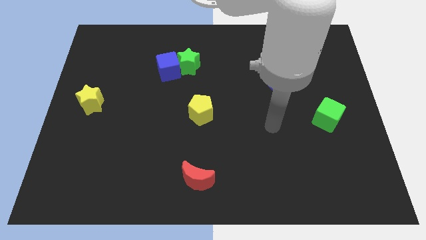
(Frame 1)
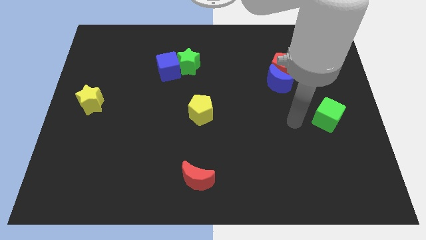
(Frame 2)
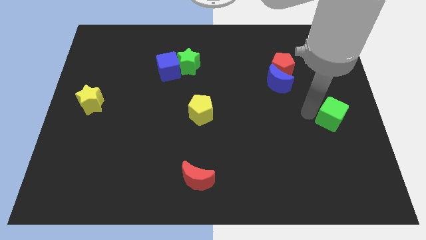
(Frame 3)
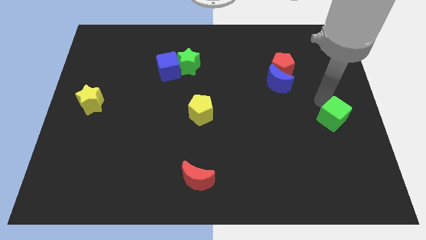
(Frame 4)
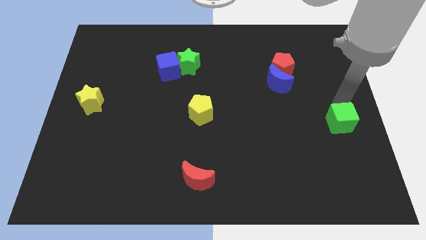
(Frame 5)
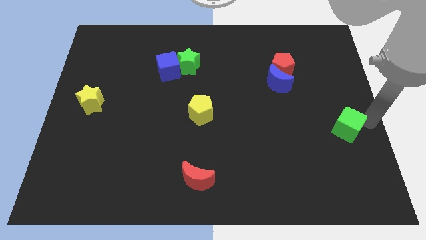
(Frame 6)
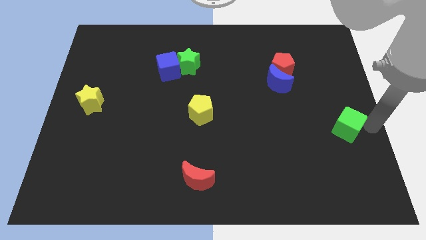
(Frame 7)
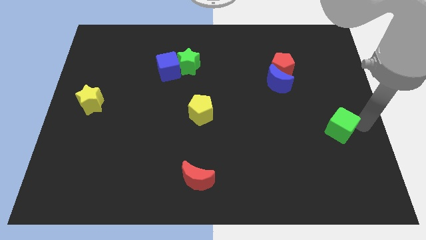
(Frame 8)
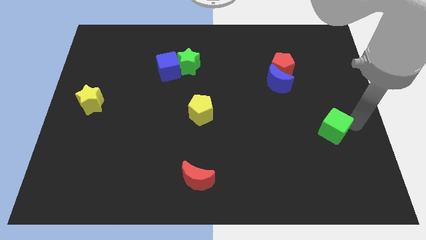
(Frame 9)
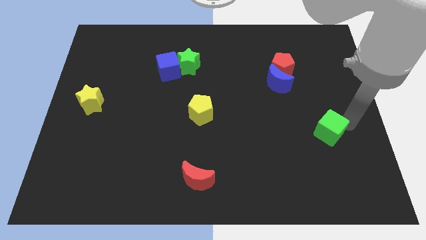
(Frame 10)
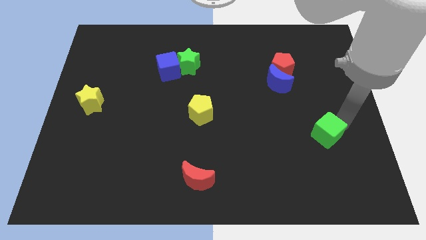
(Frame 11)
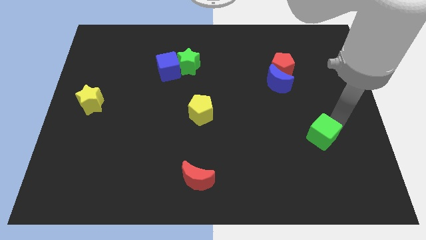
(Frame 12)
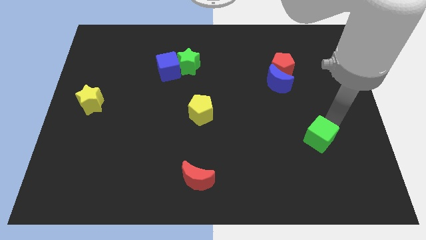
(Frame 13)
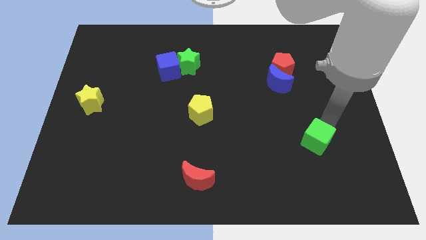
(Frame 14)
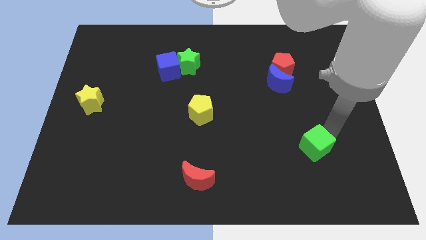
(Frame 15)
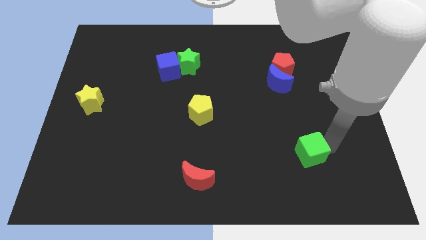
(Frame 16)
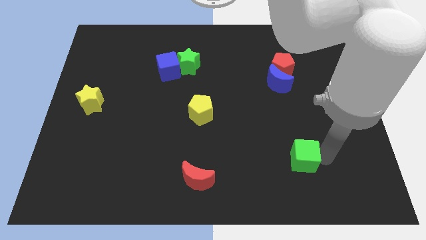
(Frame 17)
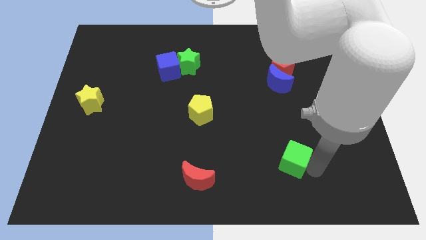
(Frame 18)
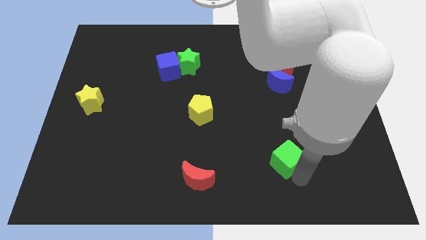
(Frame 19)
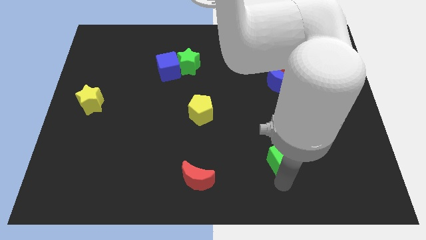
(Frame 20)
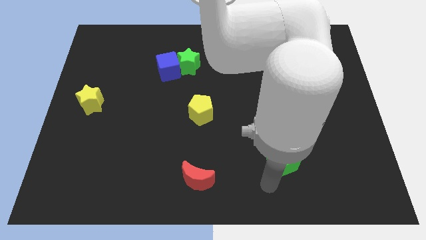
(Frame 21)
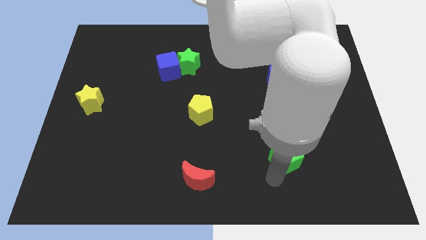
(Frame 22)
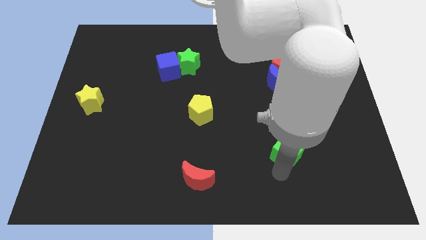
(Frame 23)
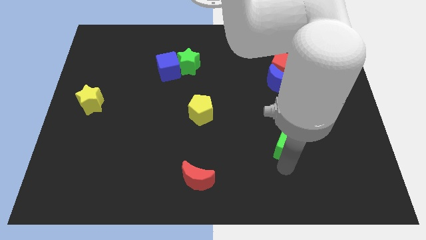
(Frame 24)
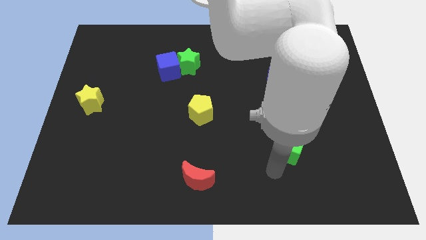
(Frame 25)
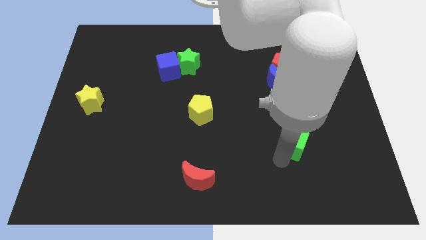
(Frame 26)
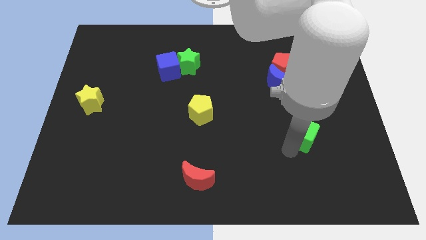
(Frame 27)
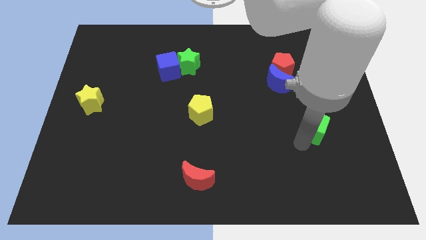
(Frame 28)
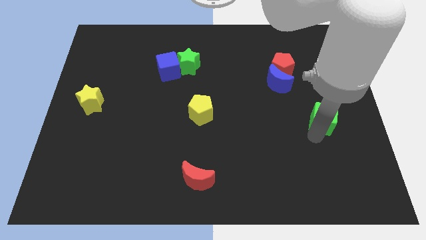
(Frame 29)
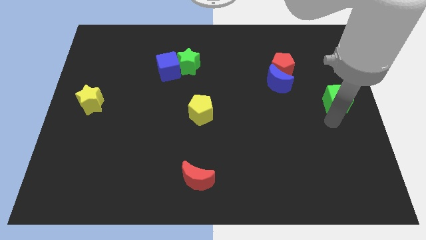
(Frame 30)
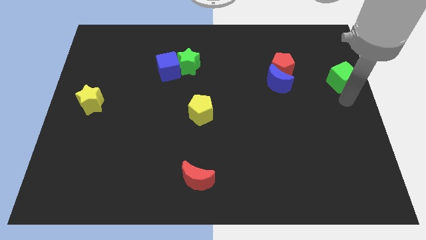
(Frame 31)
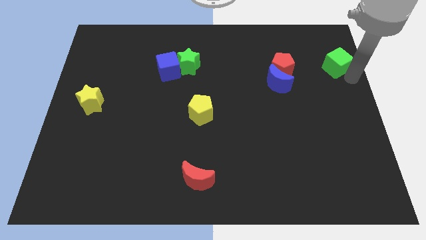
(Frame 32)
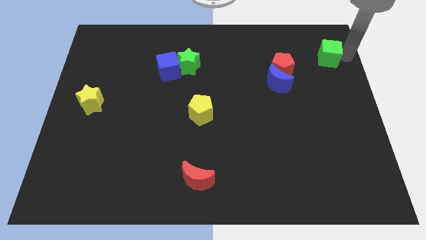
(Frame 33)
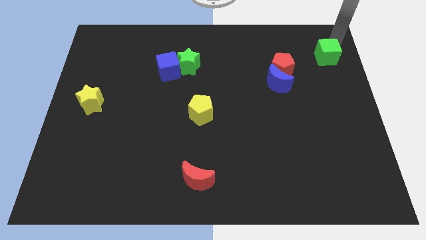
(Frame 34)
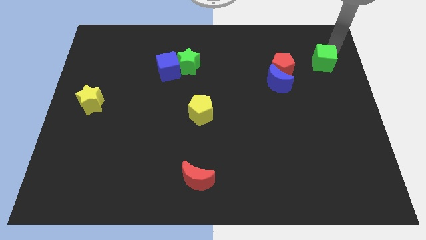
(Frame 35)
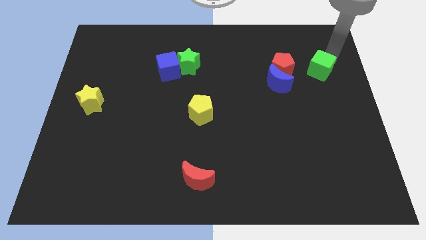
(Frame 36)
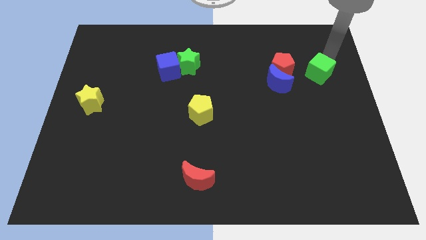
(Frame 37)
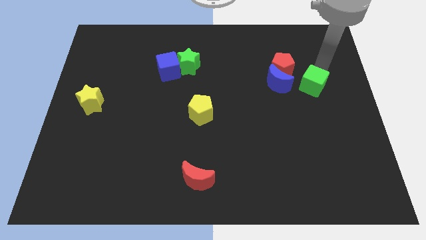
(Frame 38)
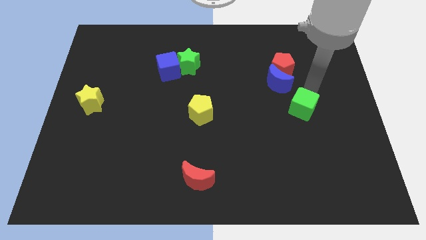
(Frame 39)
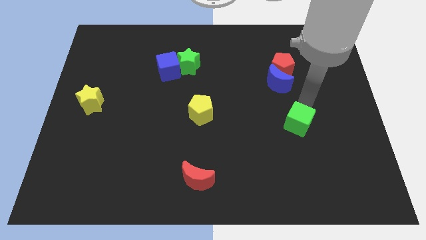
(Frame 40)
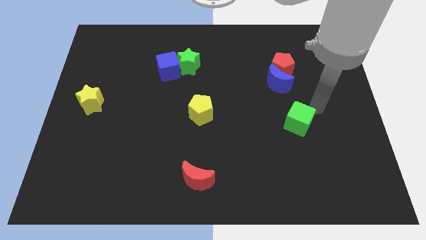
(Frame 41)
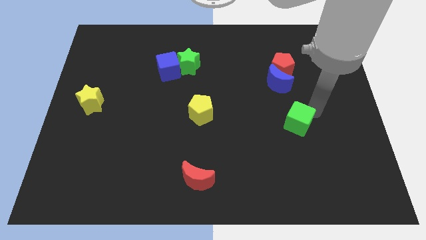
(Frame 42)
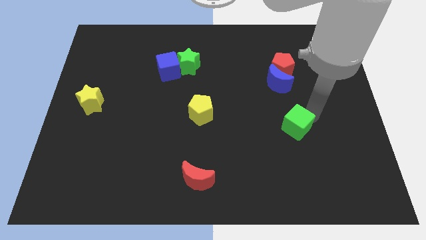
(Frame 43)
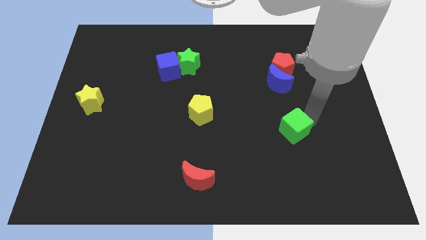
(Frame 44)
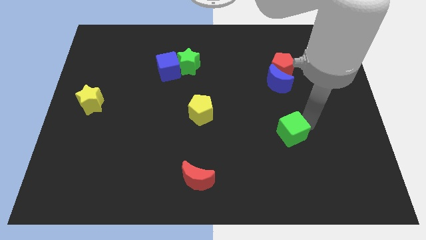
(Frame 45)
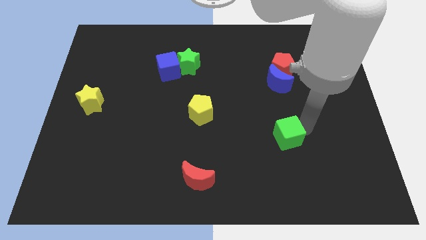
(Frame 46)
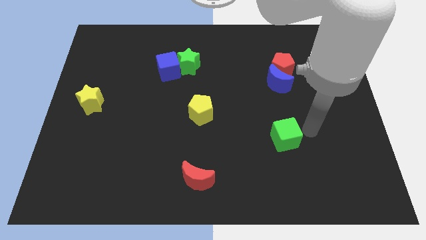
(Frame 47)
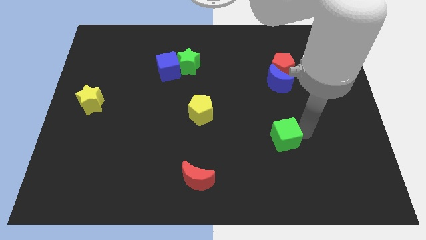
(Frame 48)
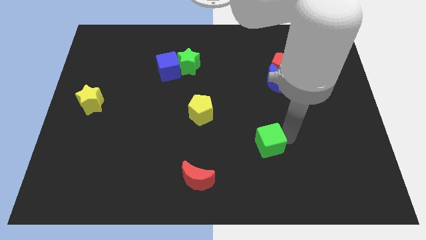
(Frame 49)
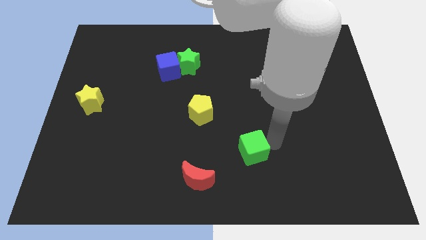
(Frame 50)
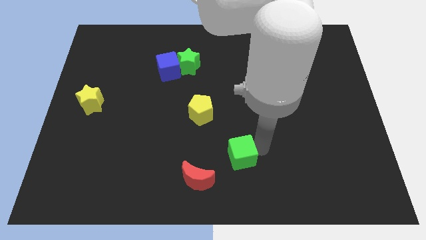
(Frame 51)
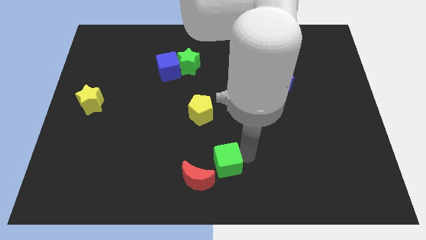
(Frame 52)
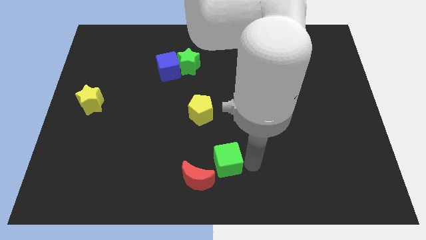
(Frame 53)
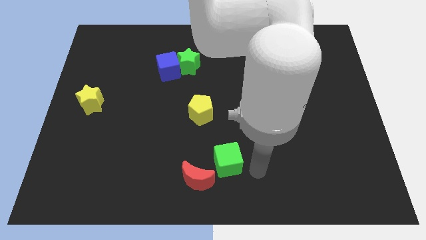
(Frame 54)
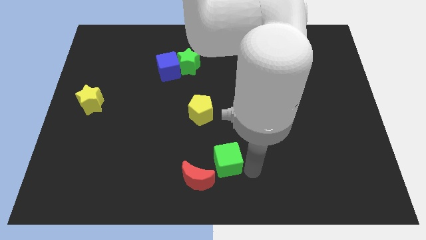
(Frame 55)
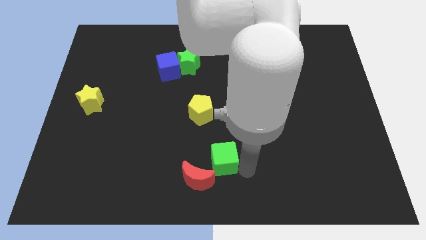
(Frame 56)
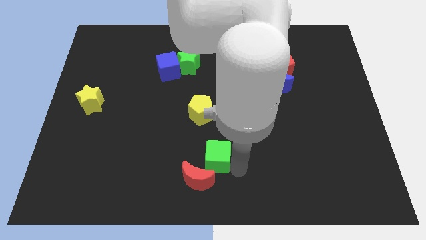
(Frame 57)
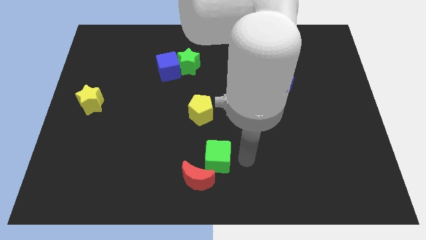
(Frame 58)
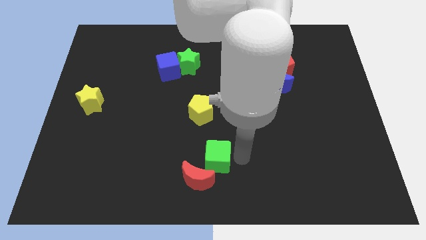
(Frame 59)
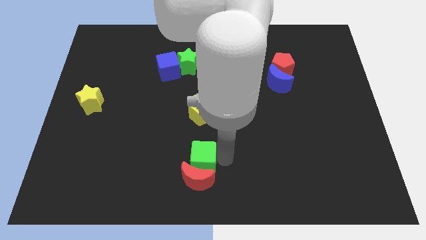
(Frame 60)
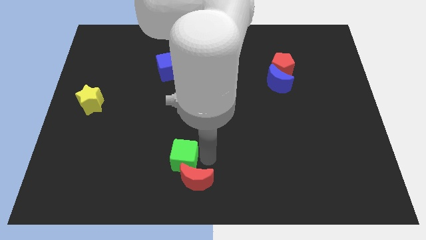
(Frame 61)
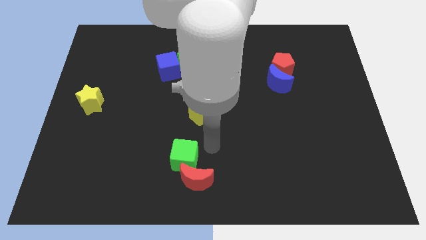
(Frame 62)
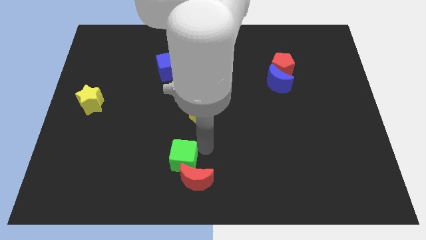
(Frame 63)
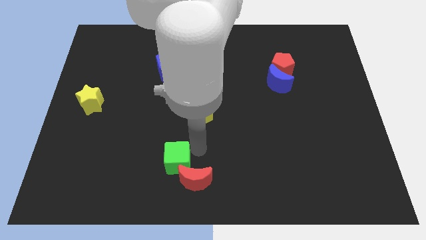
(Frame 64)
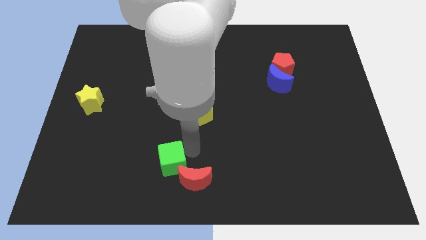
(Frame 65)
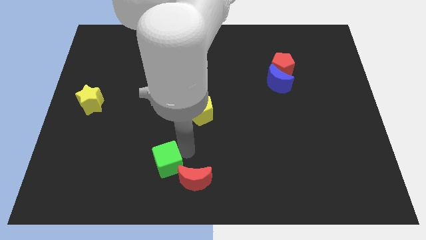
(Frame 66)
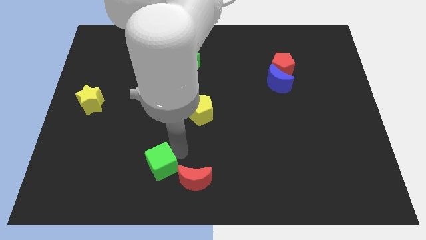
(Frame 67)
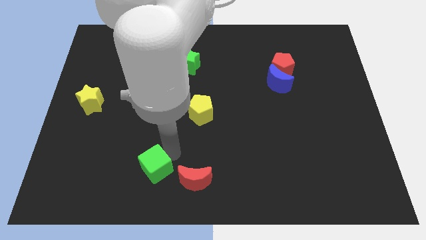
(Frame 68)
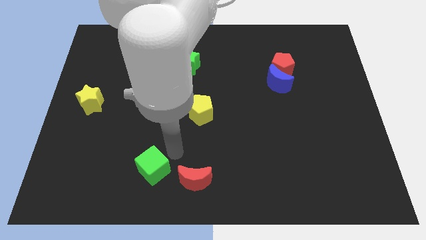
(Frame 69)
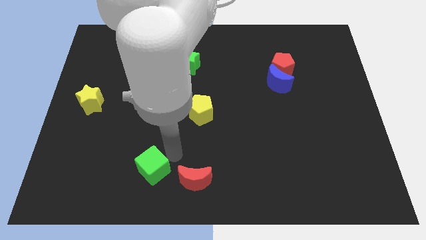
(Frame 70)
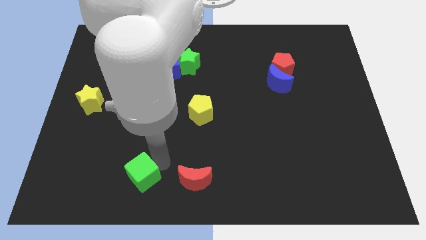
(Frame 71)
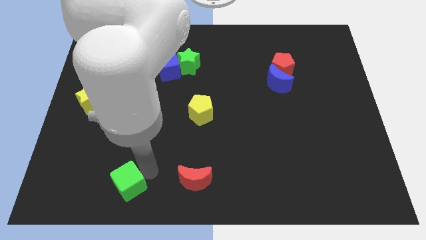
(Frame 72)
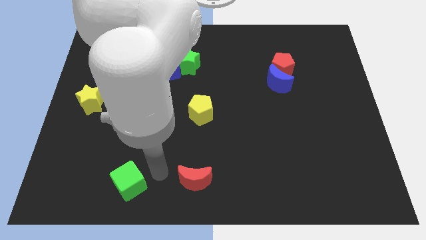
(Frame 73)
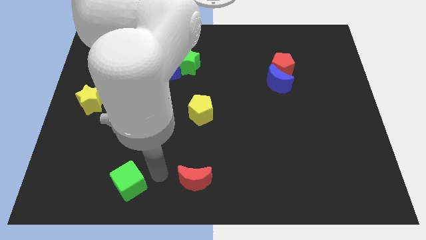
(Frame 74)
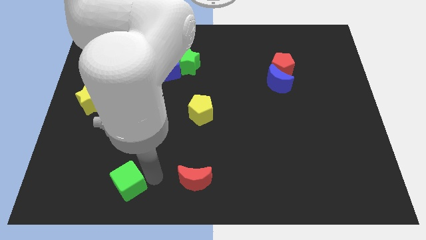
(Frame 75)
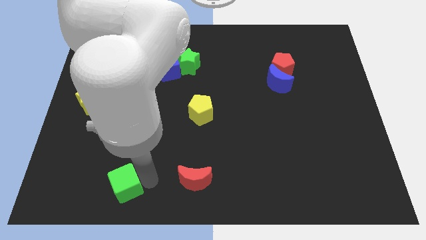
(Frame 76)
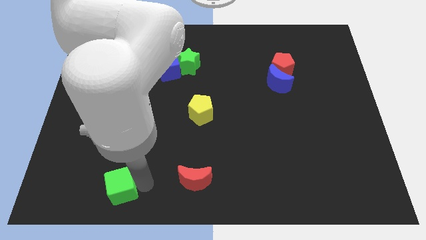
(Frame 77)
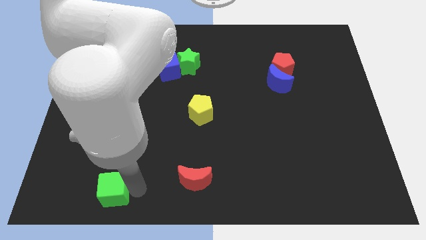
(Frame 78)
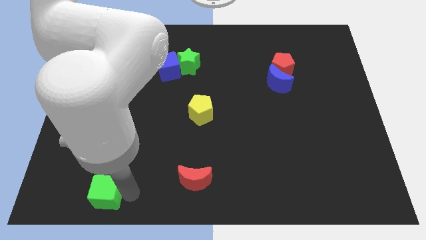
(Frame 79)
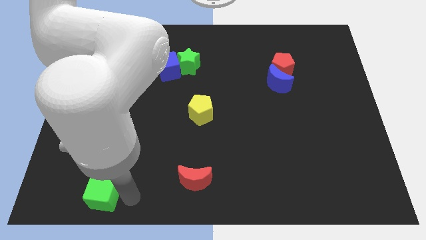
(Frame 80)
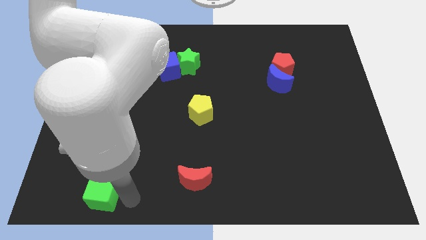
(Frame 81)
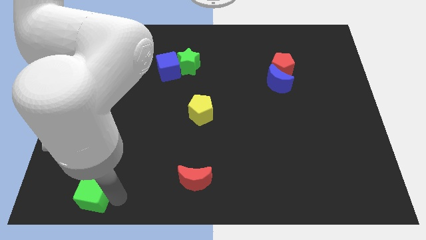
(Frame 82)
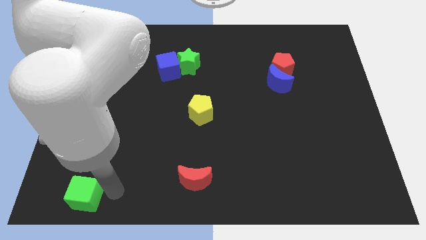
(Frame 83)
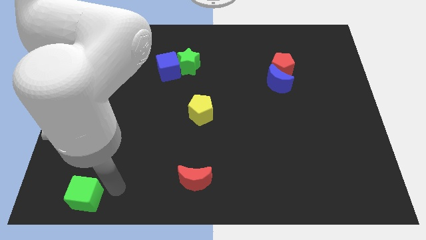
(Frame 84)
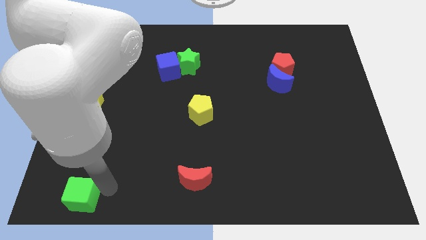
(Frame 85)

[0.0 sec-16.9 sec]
put the green cube to the bottom left of the board
